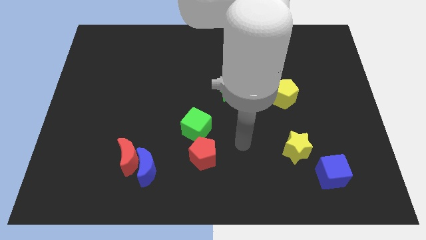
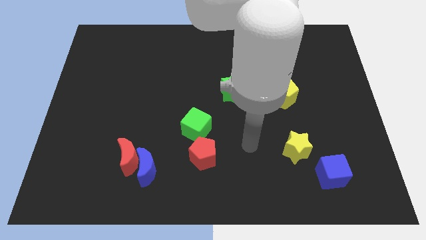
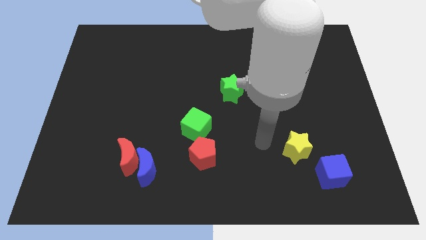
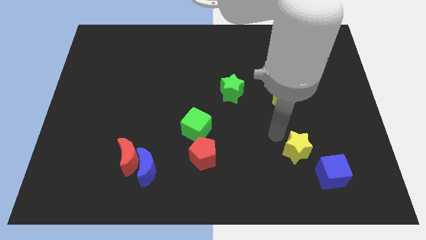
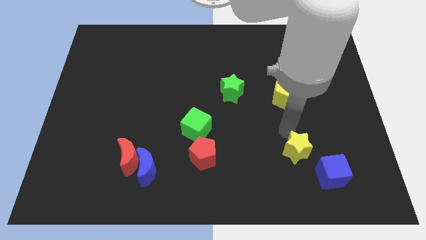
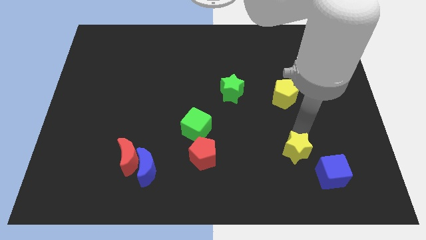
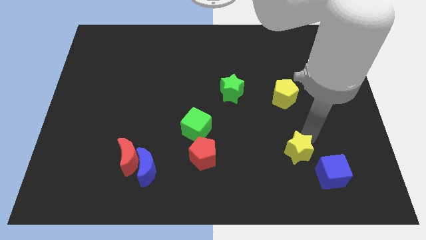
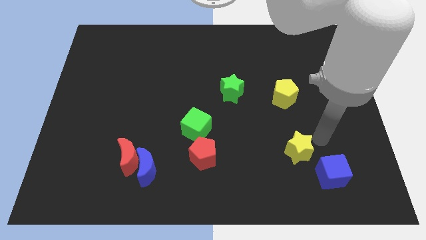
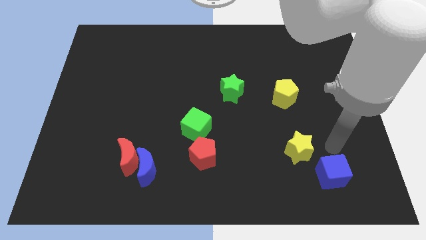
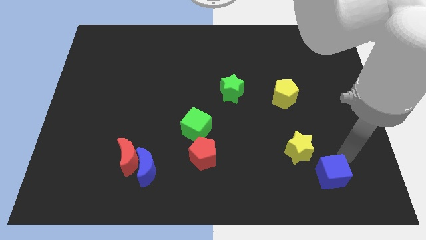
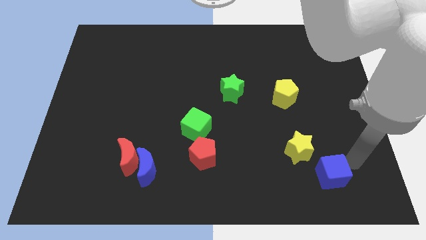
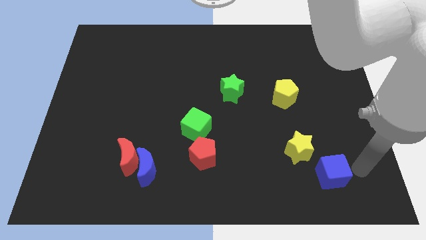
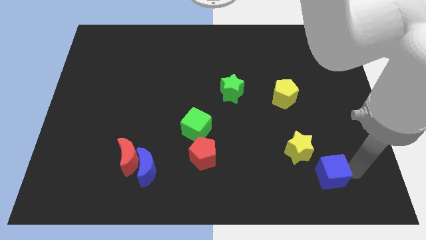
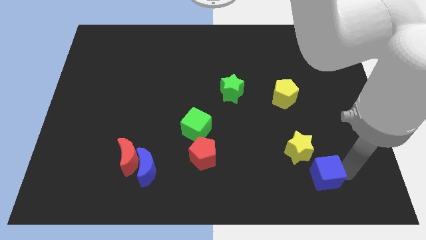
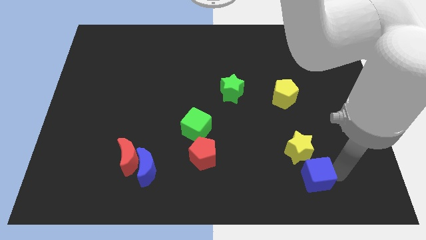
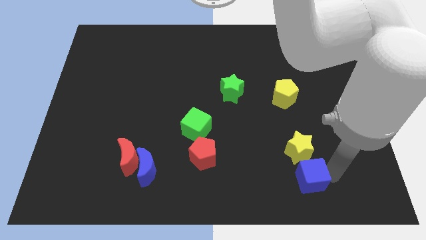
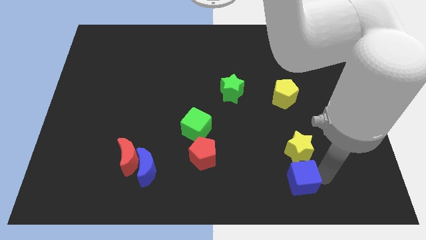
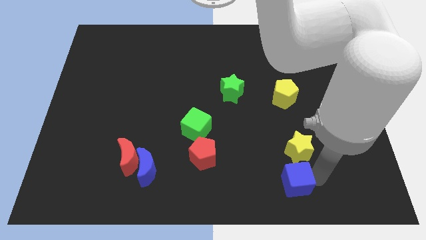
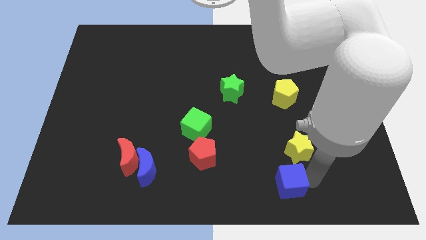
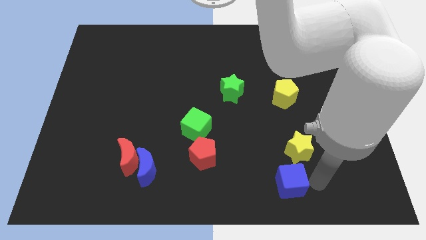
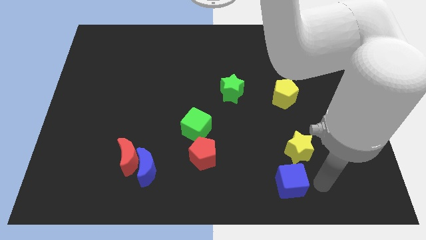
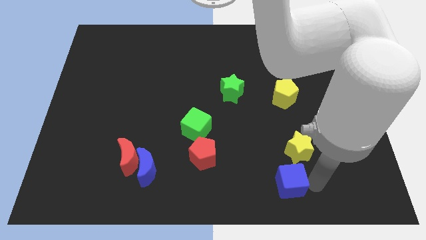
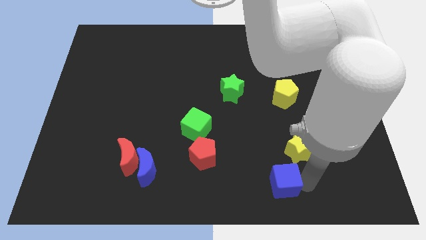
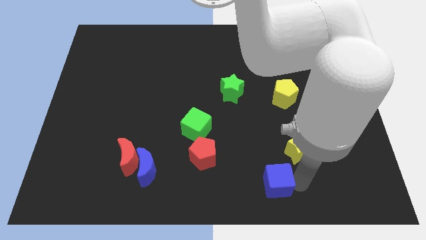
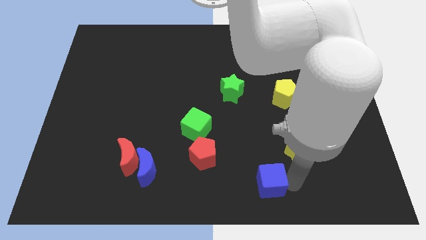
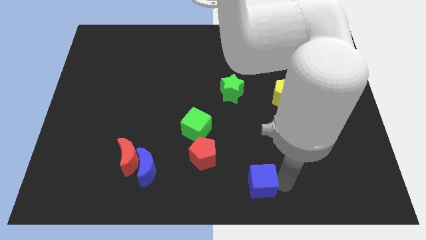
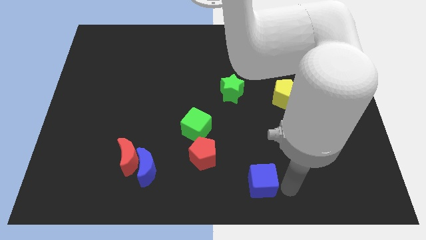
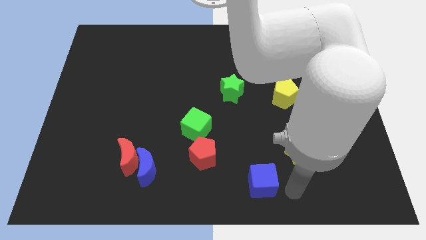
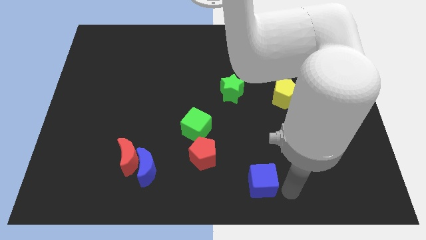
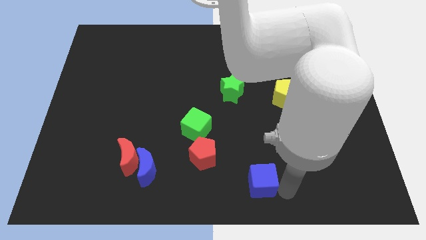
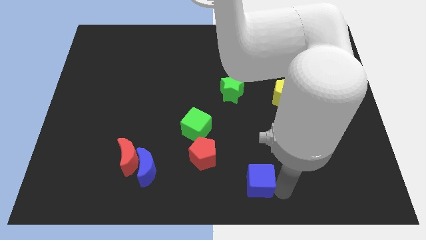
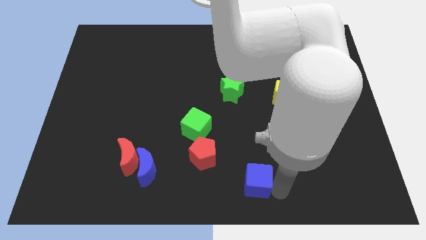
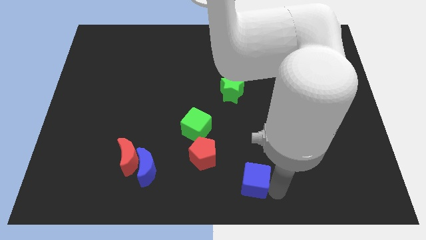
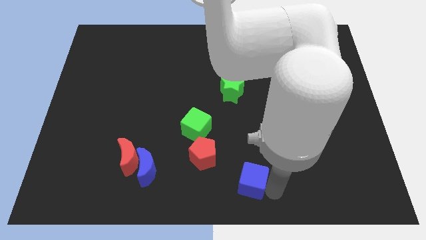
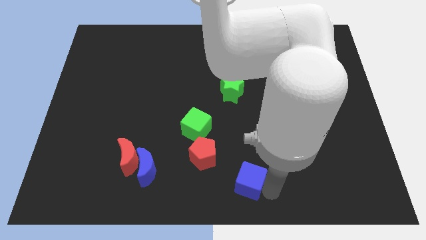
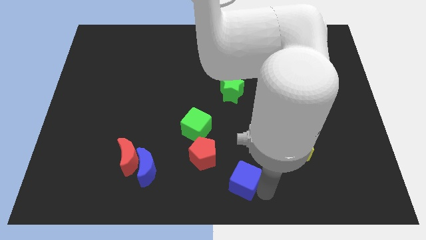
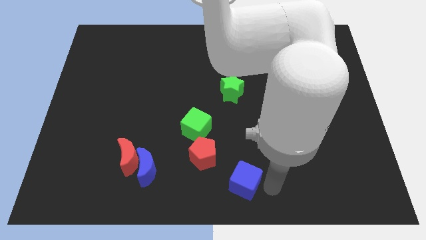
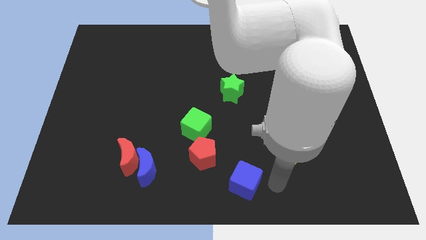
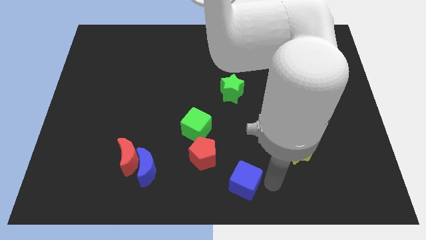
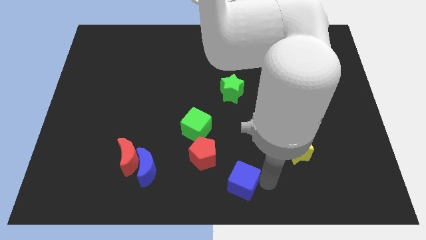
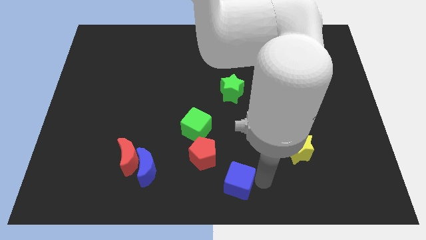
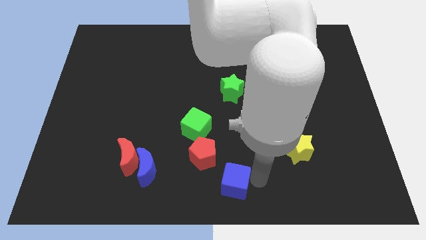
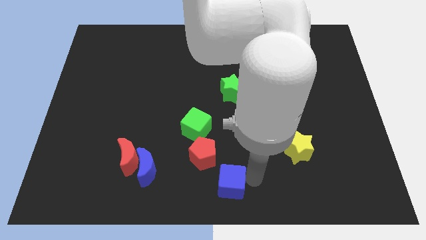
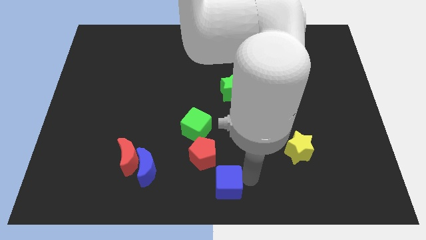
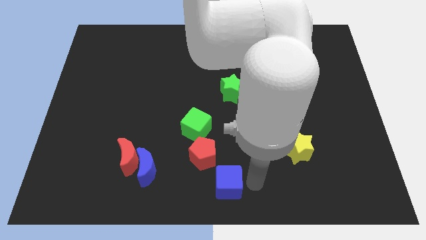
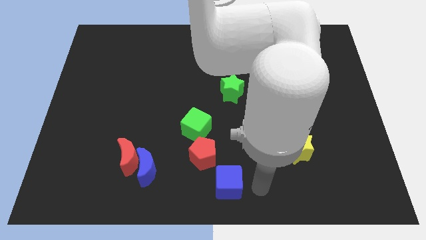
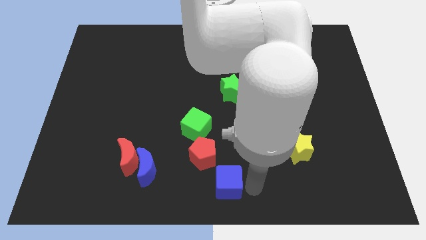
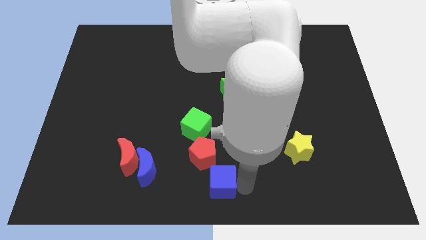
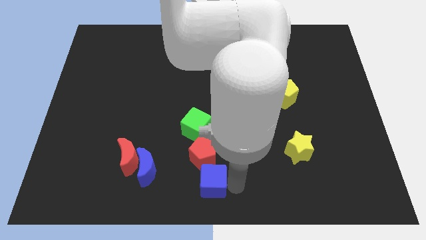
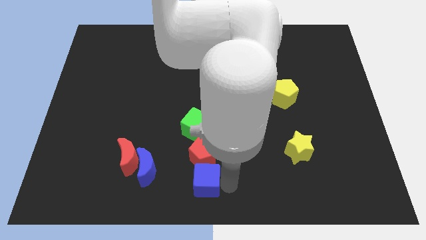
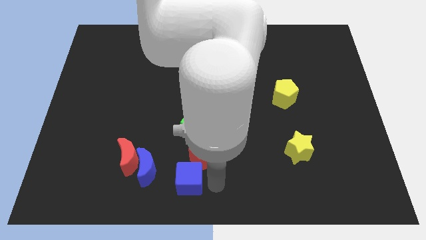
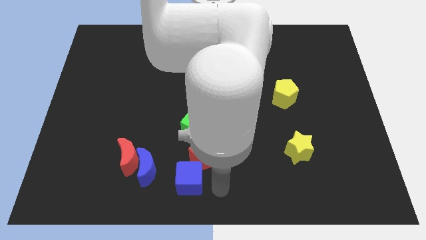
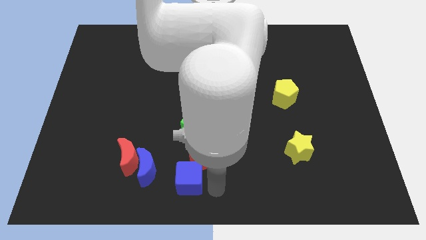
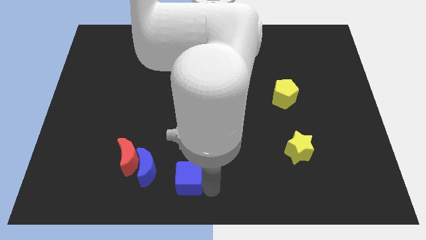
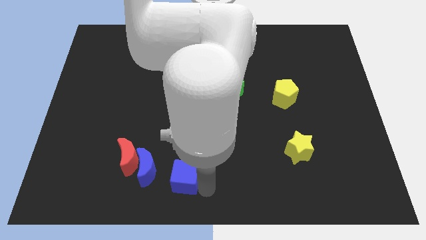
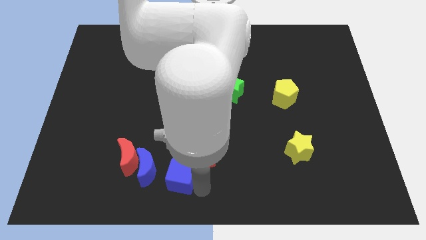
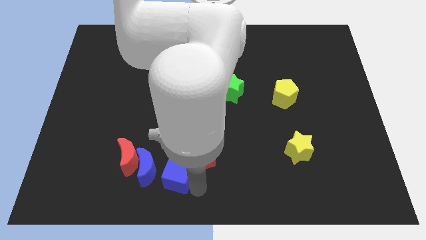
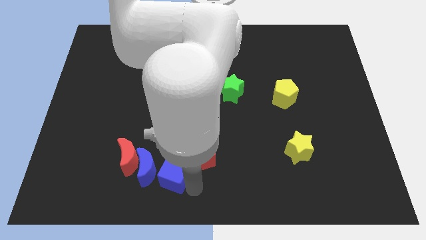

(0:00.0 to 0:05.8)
slide the blue cube towards the blue moon

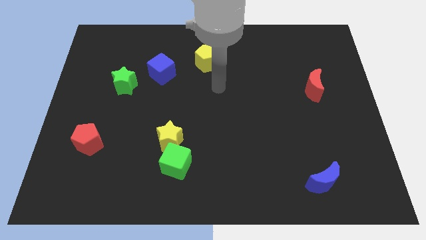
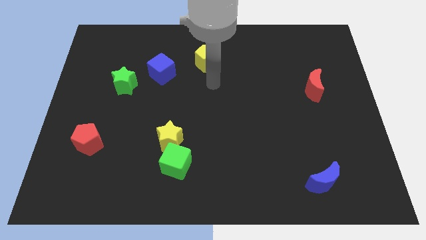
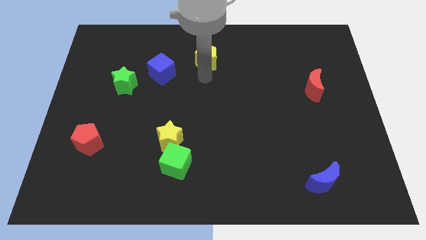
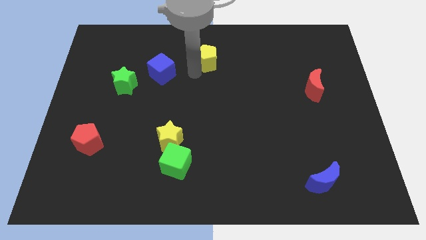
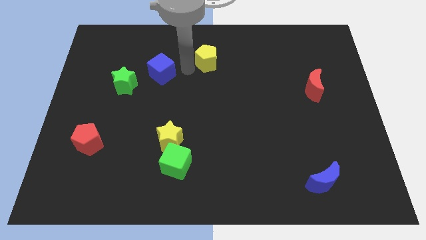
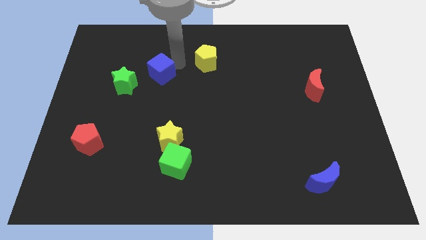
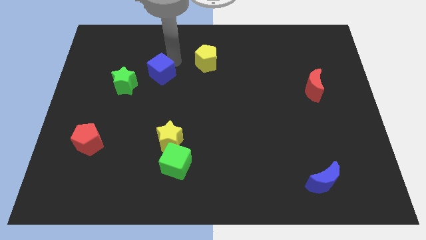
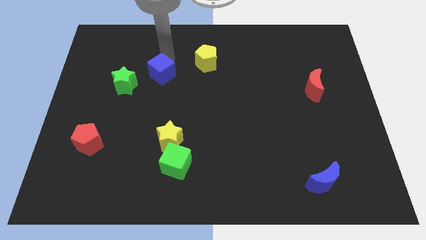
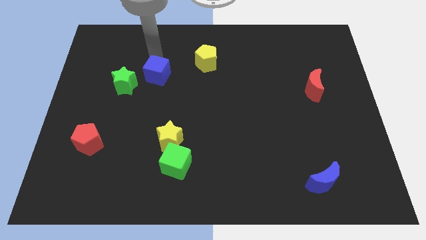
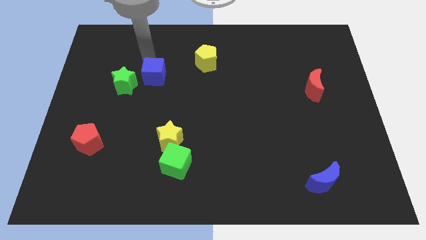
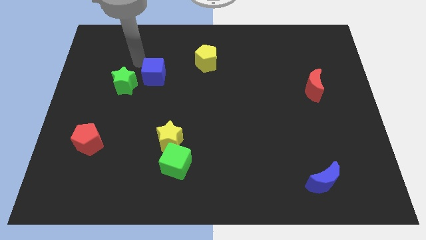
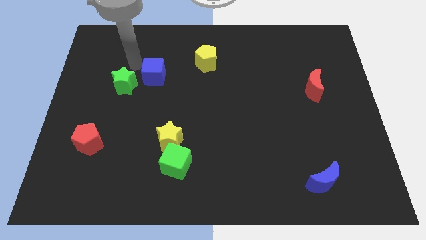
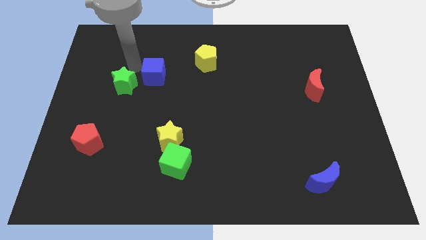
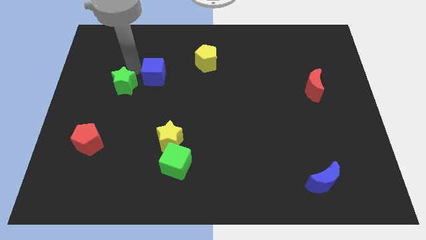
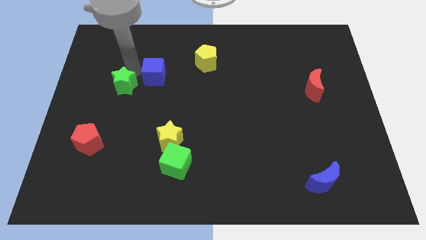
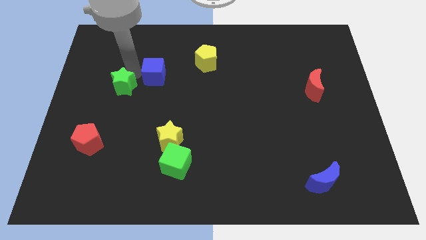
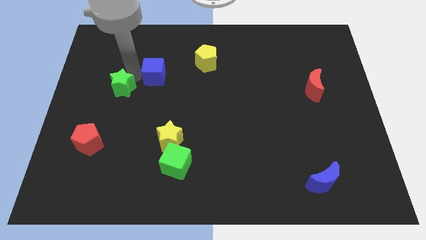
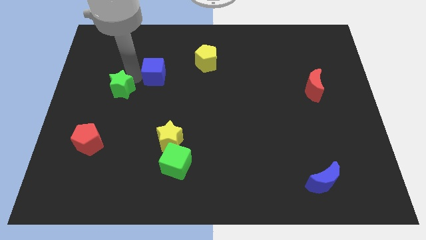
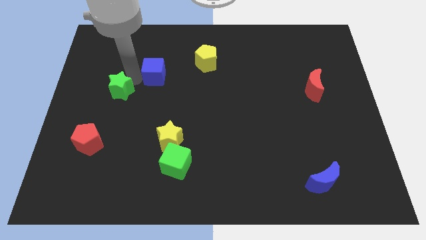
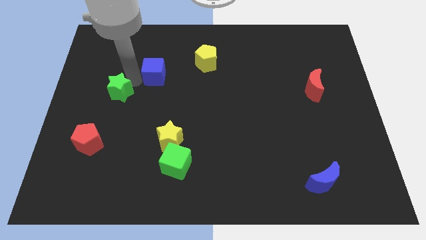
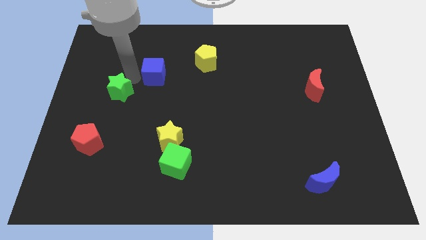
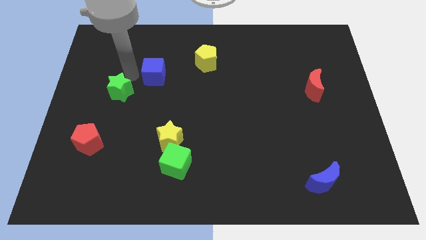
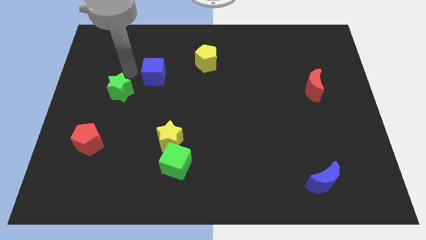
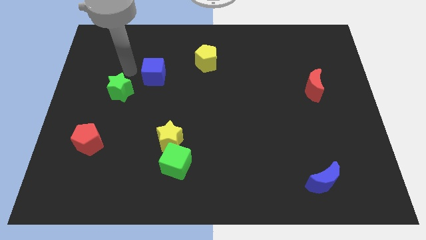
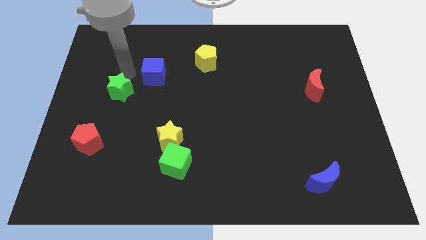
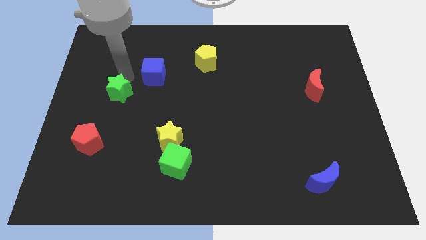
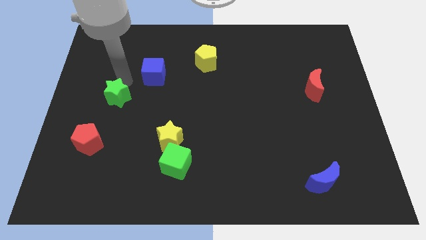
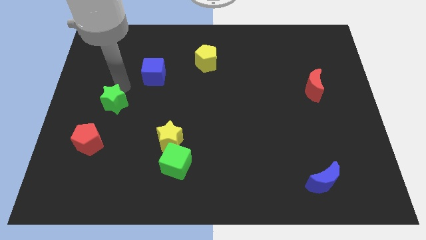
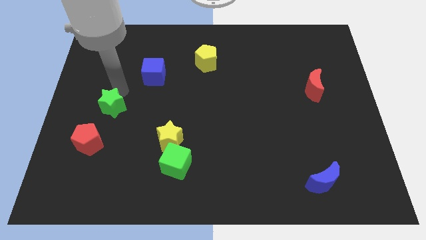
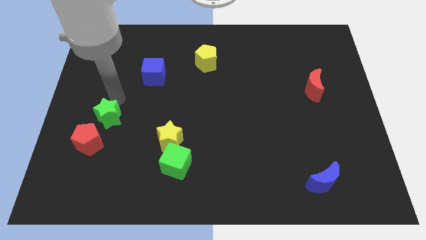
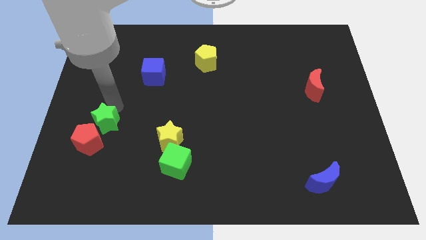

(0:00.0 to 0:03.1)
push the green star to the red pentagon
